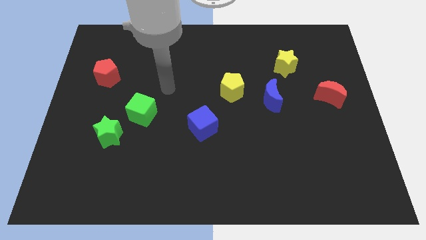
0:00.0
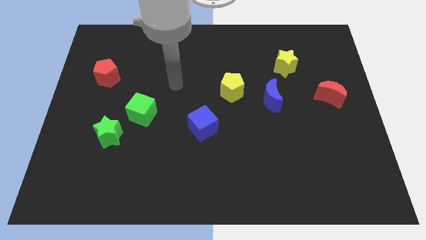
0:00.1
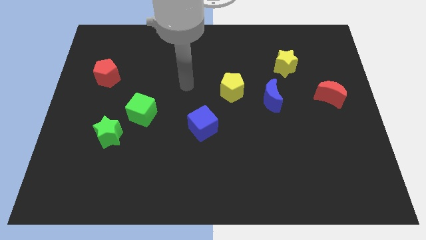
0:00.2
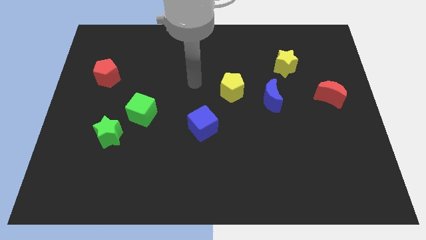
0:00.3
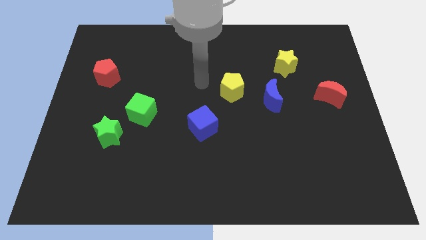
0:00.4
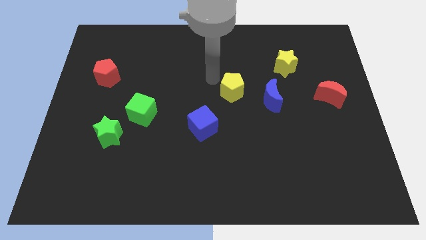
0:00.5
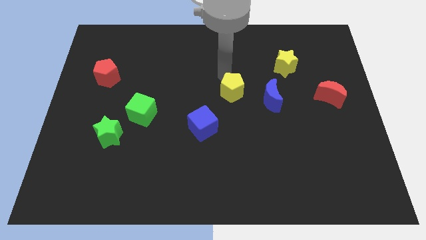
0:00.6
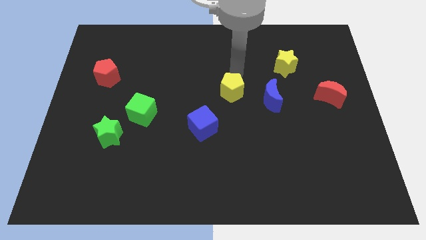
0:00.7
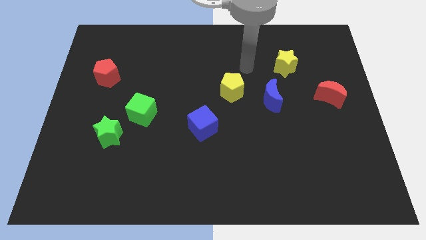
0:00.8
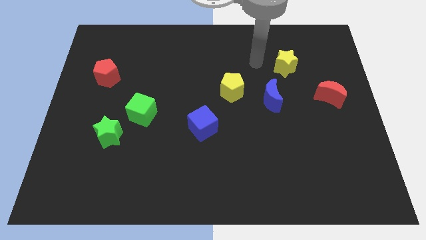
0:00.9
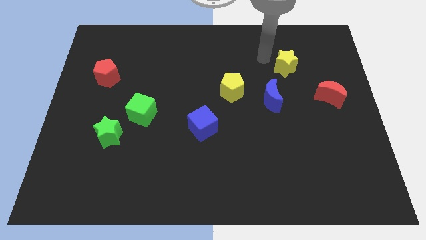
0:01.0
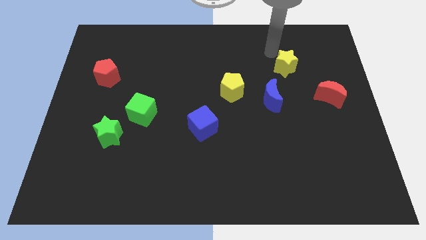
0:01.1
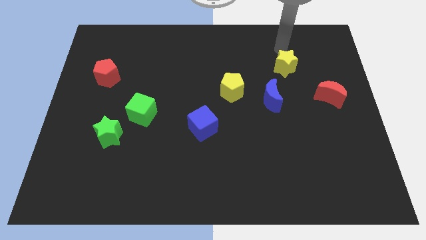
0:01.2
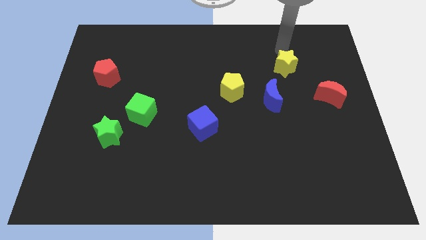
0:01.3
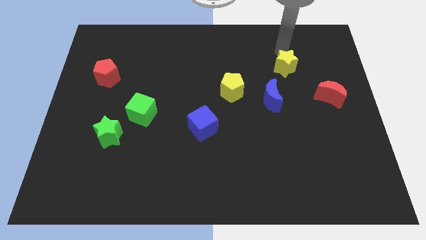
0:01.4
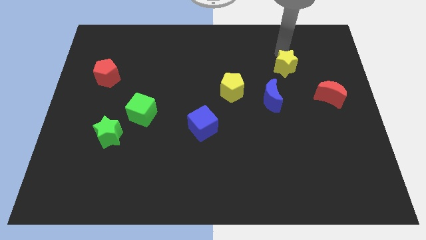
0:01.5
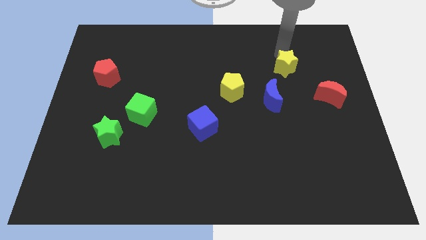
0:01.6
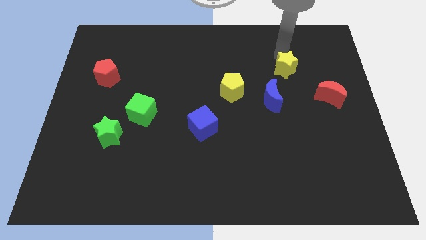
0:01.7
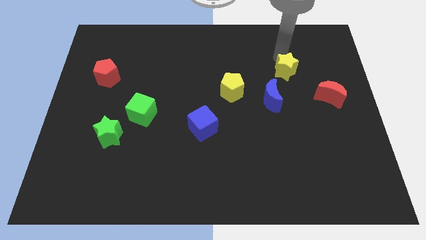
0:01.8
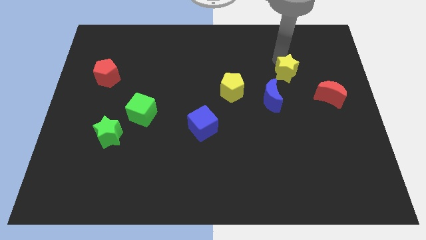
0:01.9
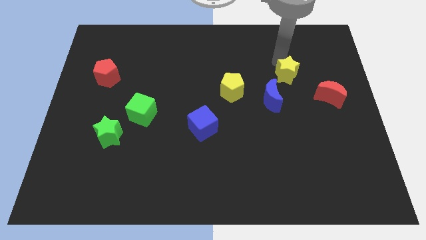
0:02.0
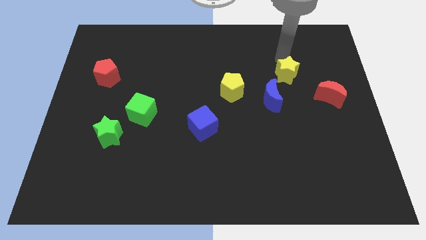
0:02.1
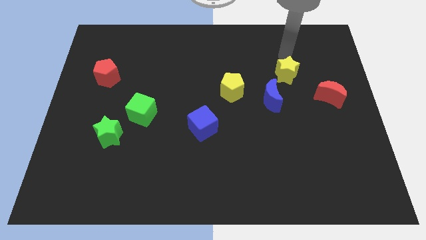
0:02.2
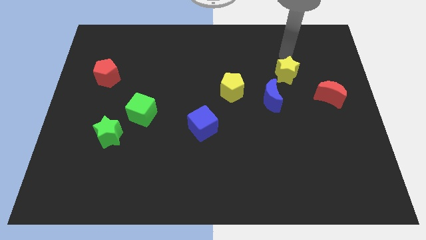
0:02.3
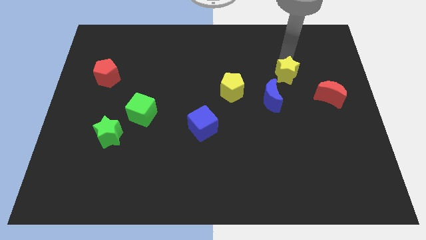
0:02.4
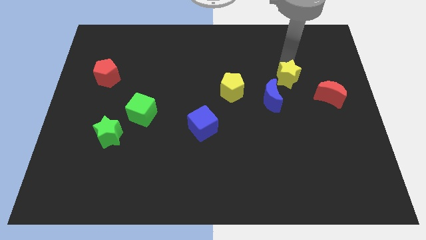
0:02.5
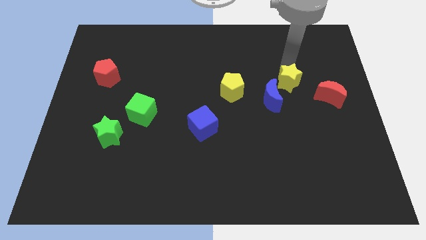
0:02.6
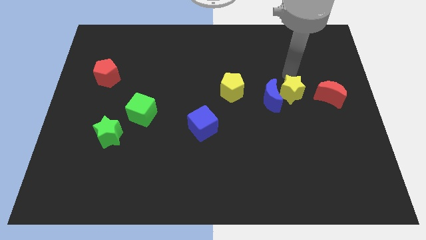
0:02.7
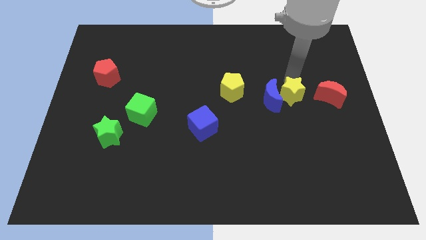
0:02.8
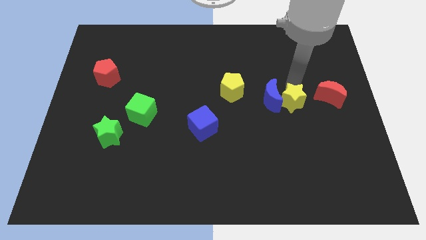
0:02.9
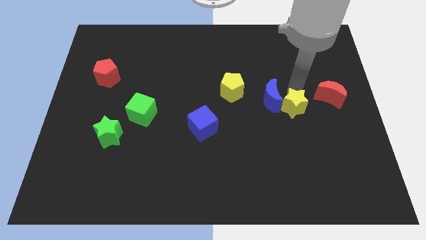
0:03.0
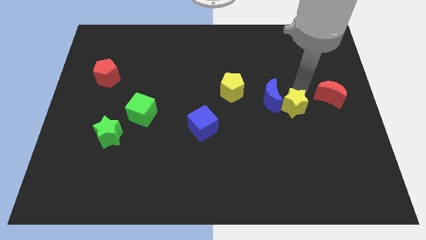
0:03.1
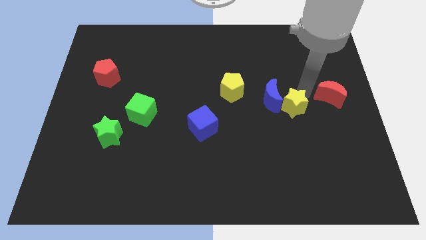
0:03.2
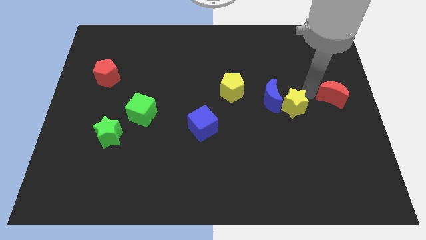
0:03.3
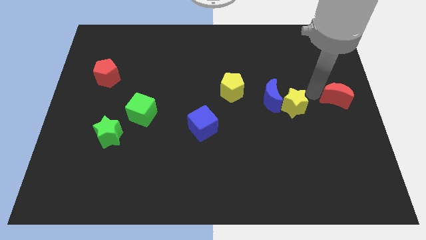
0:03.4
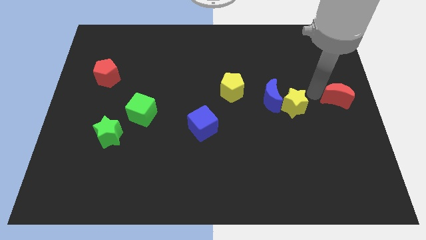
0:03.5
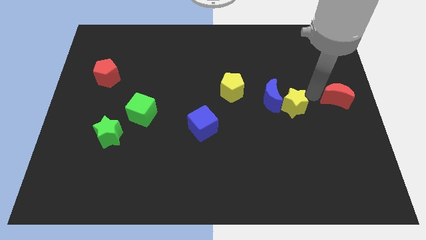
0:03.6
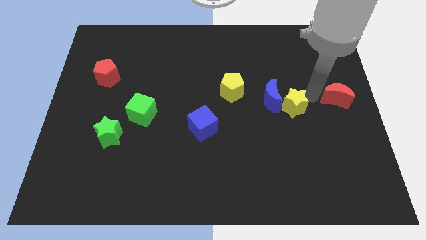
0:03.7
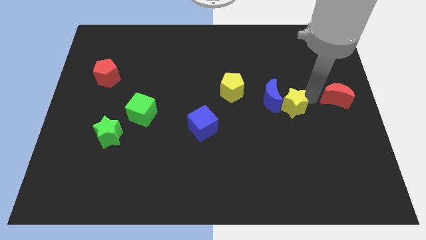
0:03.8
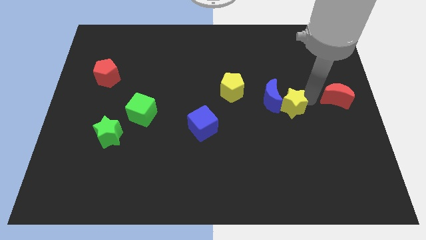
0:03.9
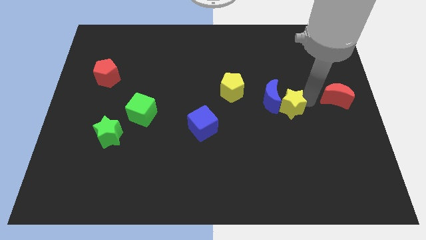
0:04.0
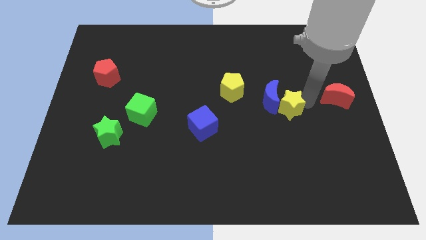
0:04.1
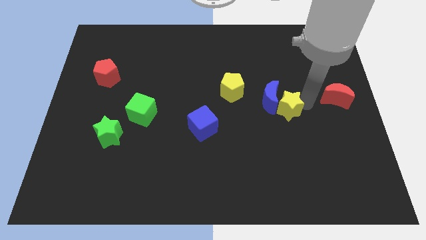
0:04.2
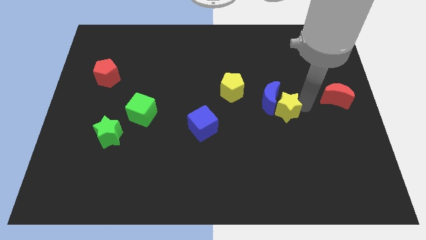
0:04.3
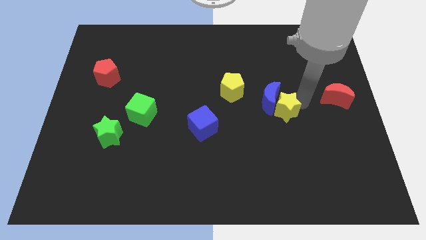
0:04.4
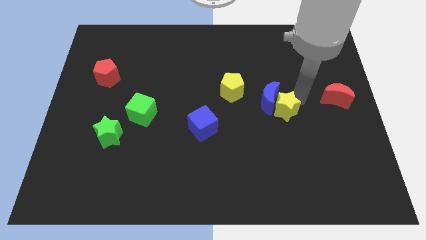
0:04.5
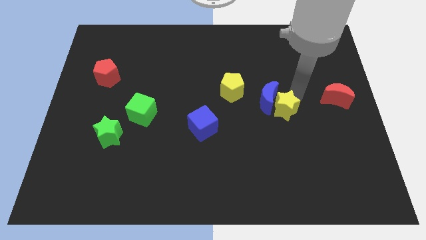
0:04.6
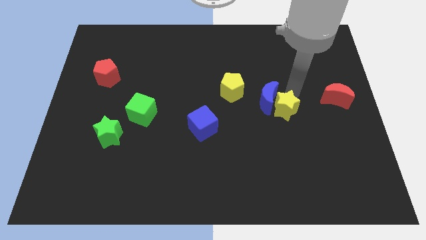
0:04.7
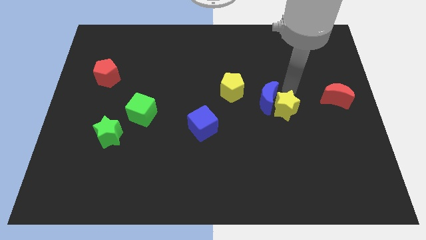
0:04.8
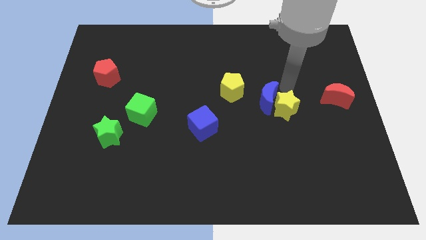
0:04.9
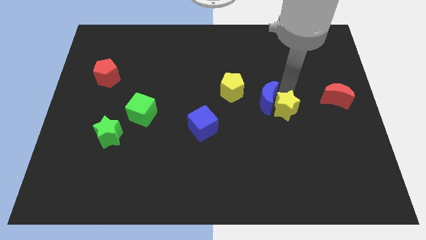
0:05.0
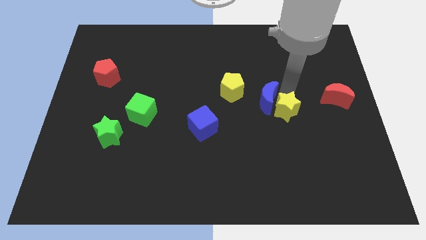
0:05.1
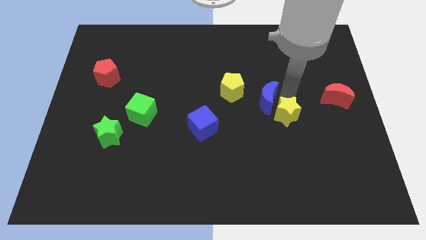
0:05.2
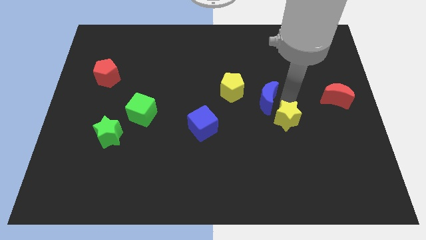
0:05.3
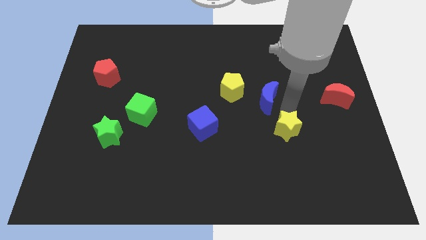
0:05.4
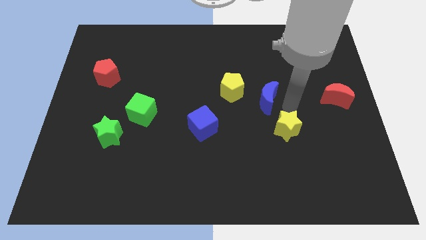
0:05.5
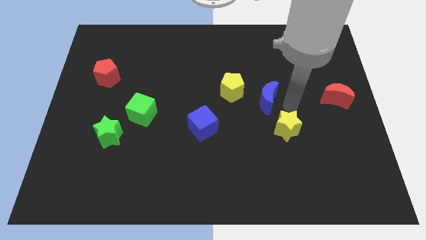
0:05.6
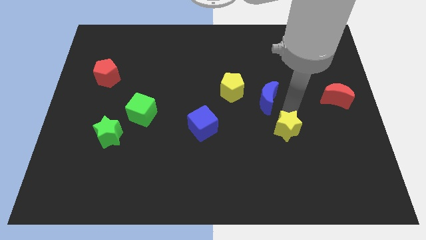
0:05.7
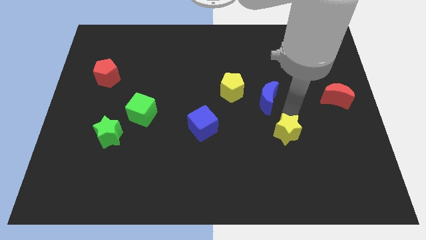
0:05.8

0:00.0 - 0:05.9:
move the yellow star downwards

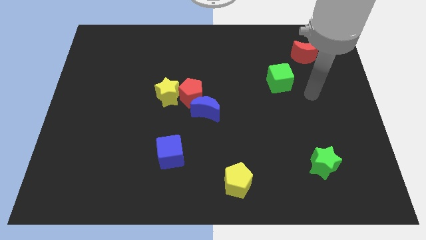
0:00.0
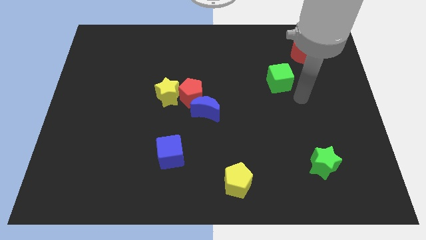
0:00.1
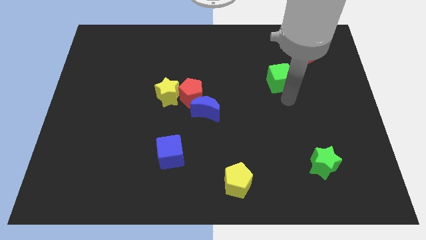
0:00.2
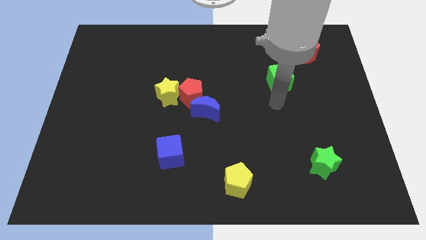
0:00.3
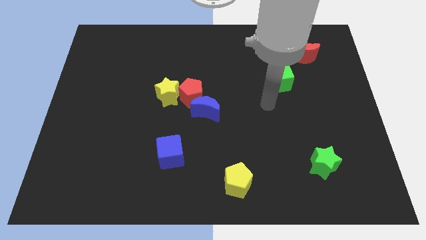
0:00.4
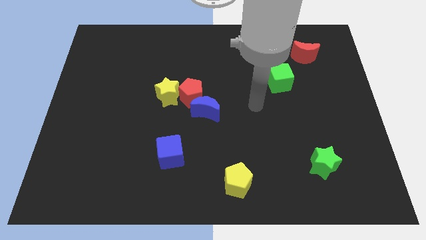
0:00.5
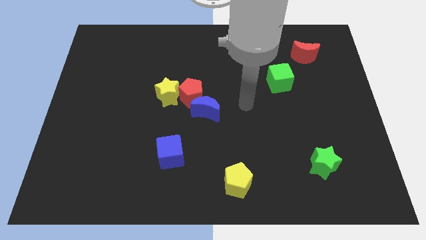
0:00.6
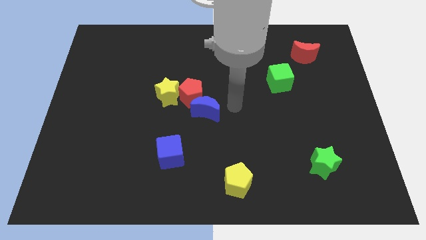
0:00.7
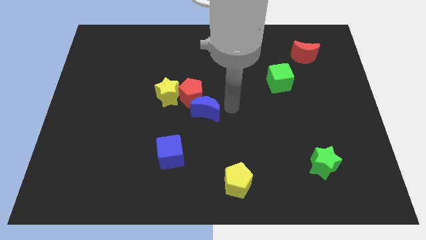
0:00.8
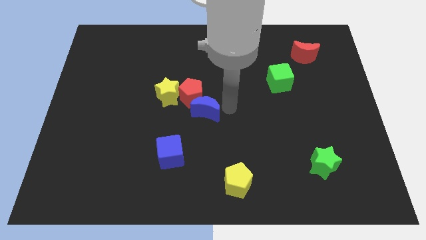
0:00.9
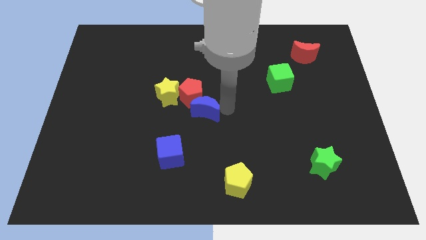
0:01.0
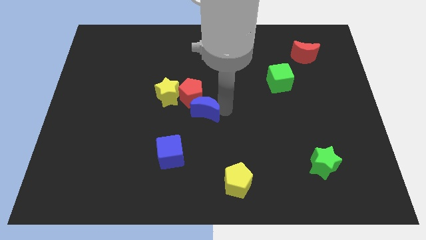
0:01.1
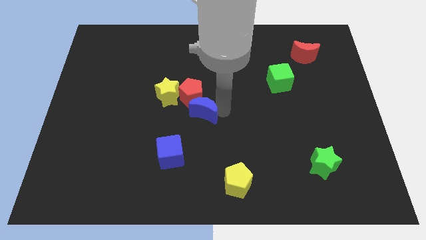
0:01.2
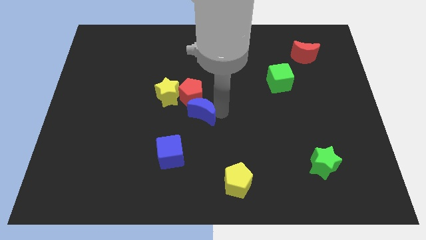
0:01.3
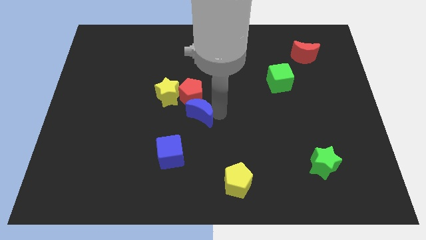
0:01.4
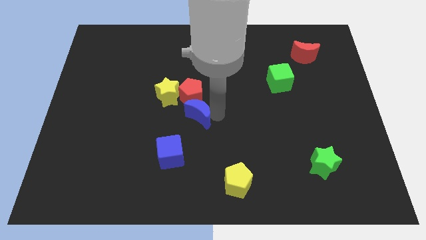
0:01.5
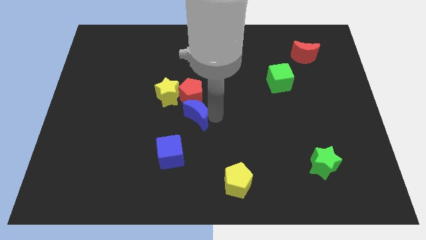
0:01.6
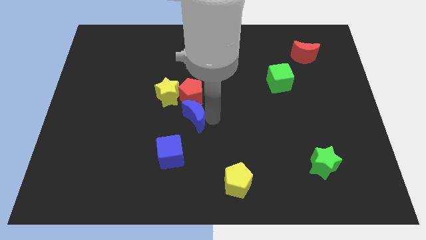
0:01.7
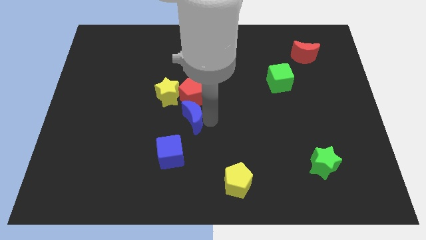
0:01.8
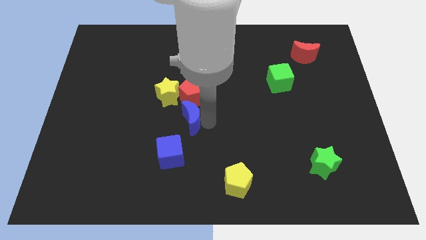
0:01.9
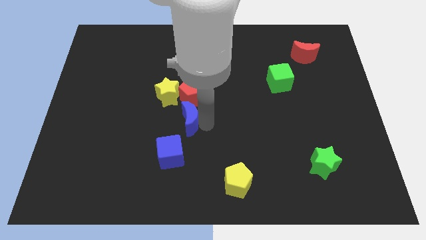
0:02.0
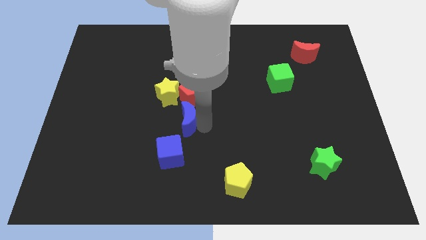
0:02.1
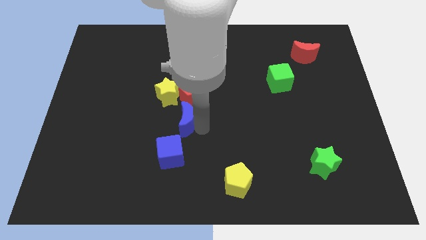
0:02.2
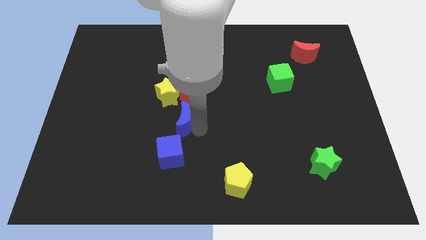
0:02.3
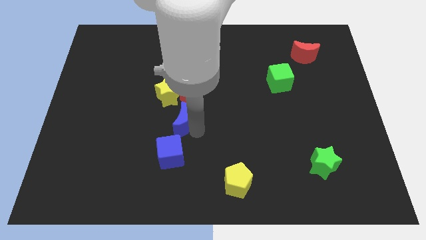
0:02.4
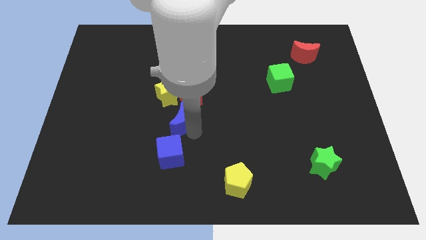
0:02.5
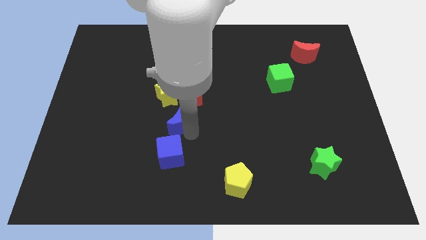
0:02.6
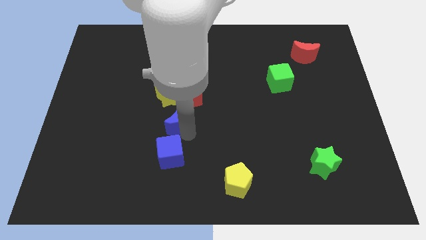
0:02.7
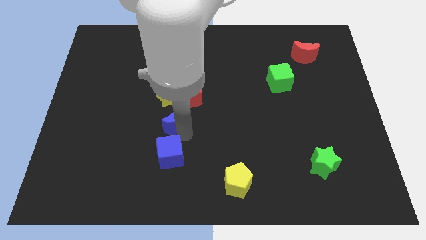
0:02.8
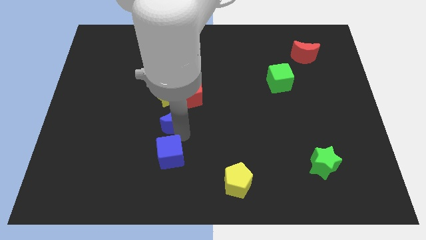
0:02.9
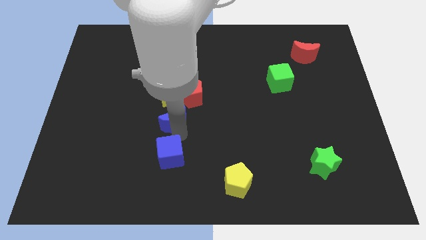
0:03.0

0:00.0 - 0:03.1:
slide the blue moon left a little
